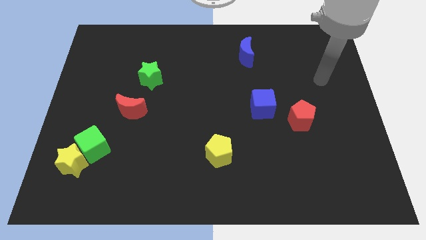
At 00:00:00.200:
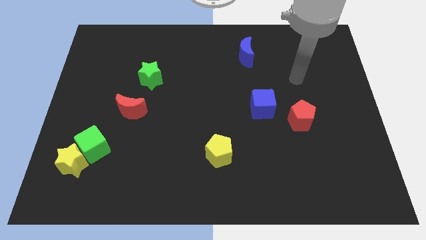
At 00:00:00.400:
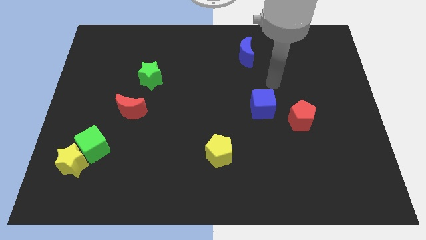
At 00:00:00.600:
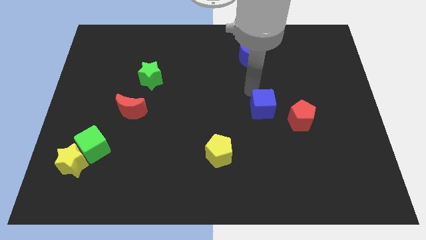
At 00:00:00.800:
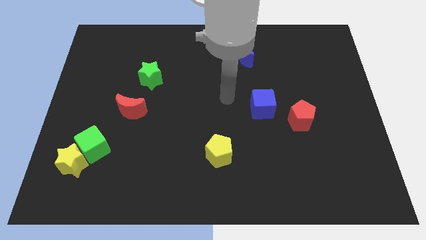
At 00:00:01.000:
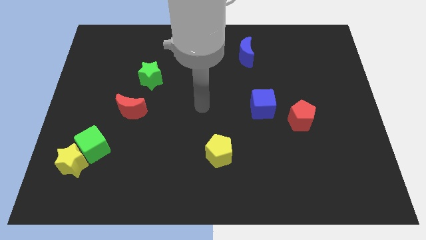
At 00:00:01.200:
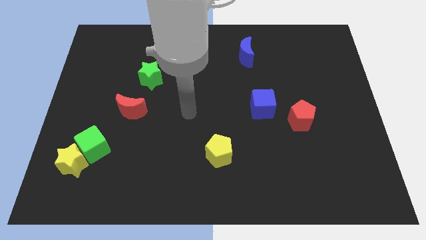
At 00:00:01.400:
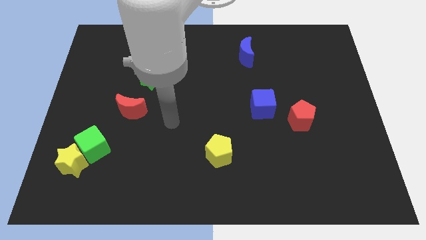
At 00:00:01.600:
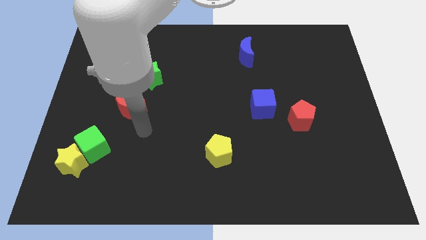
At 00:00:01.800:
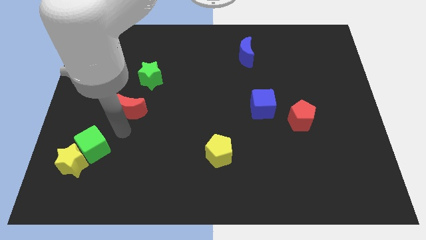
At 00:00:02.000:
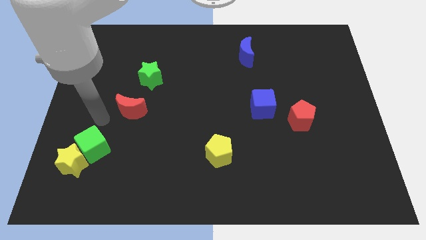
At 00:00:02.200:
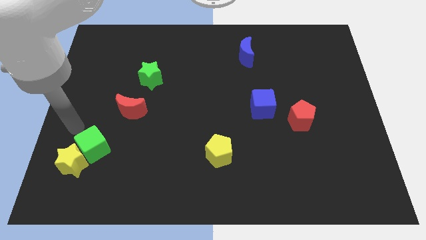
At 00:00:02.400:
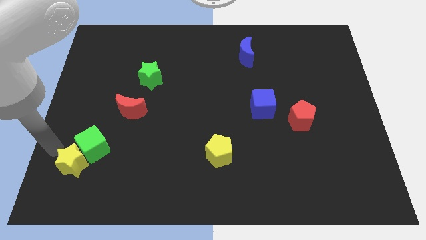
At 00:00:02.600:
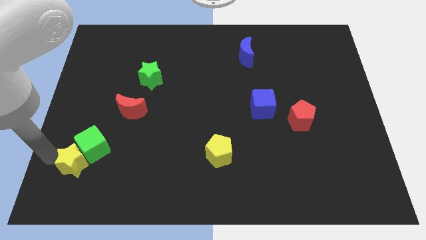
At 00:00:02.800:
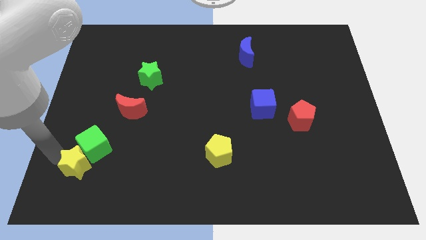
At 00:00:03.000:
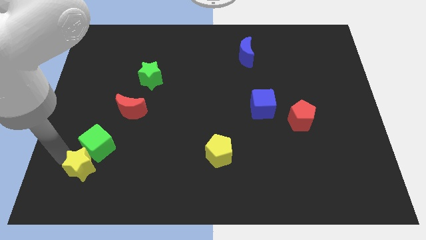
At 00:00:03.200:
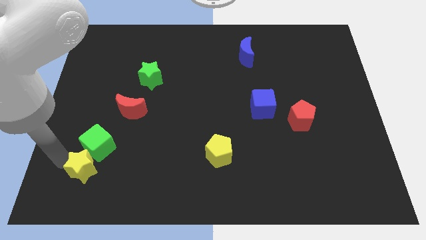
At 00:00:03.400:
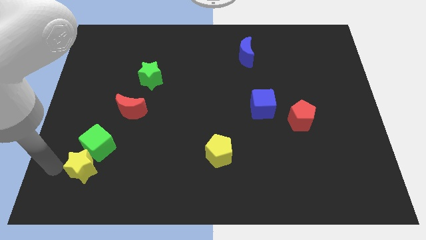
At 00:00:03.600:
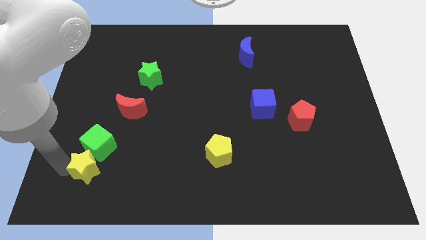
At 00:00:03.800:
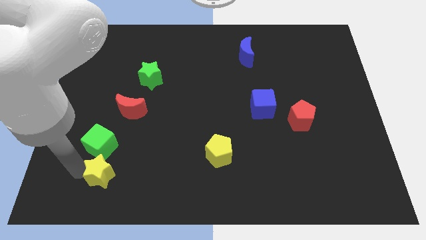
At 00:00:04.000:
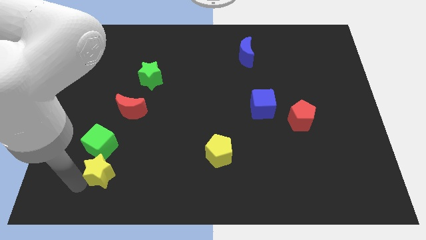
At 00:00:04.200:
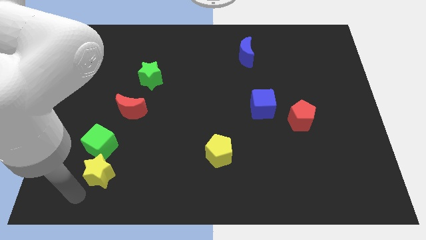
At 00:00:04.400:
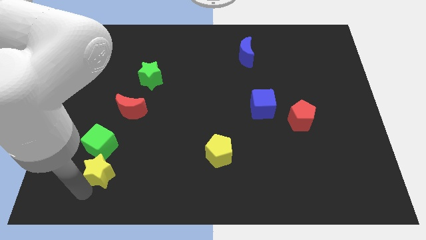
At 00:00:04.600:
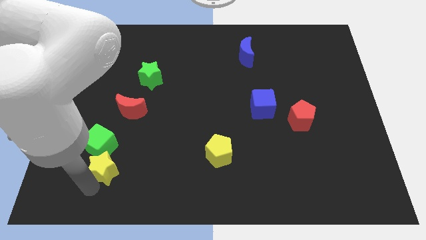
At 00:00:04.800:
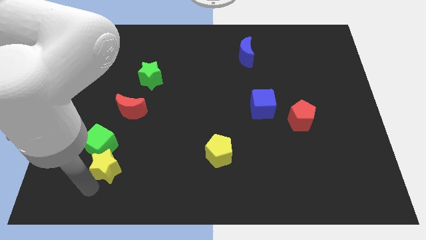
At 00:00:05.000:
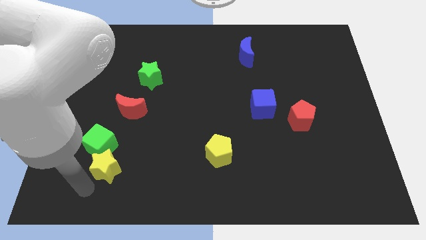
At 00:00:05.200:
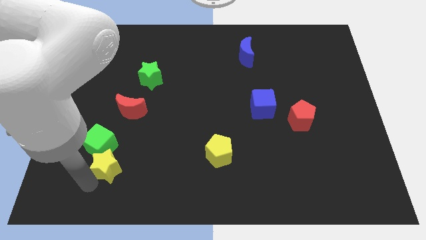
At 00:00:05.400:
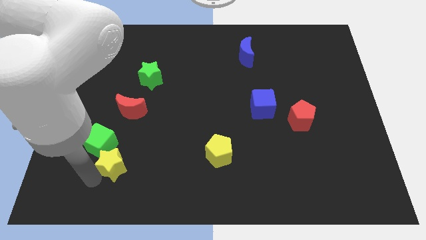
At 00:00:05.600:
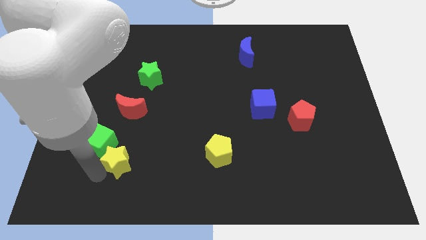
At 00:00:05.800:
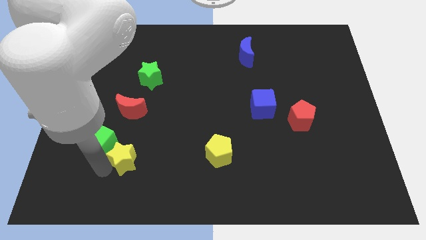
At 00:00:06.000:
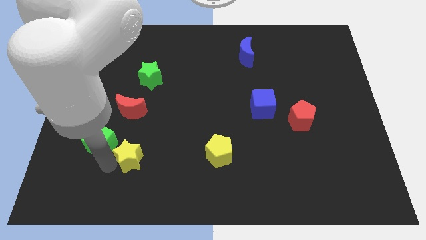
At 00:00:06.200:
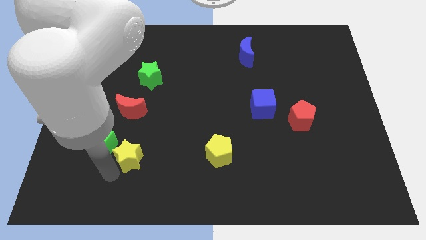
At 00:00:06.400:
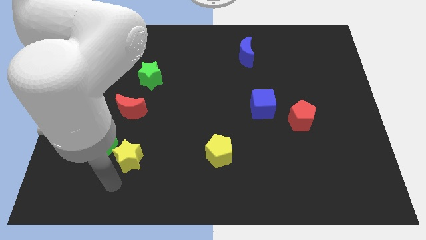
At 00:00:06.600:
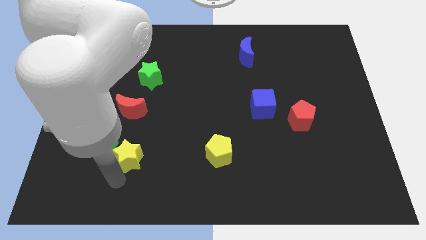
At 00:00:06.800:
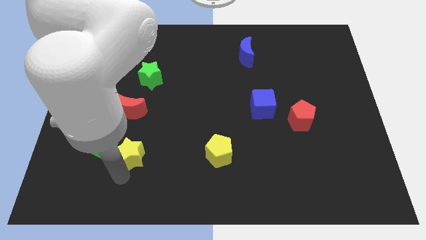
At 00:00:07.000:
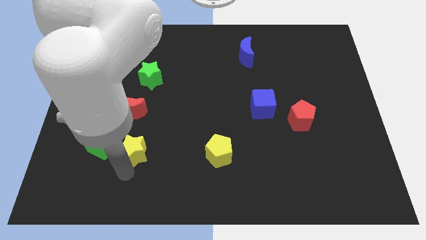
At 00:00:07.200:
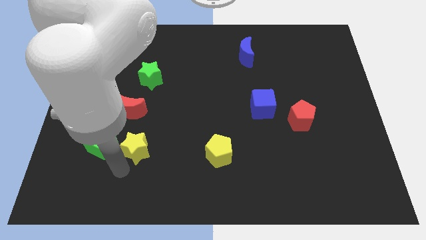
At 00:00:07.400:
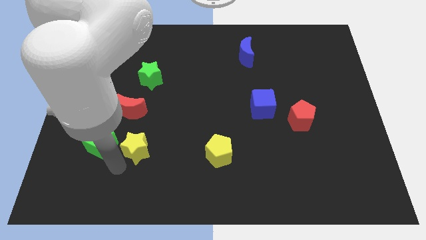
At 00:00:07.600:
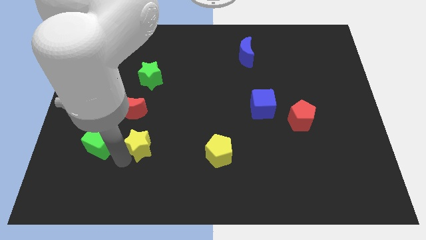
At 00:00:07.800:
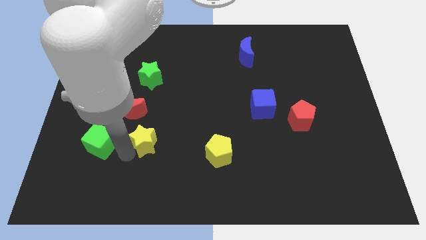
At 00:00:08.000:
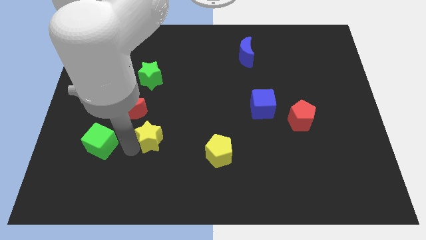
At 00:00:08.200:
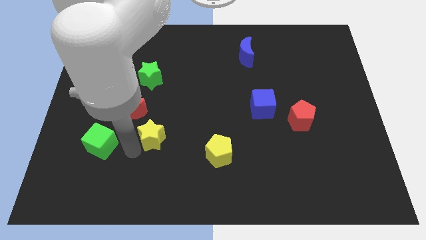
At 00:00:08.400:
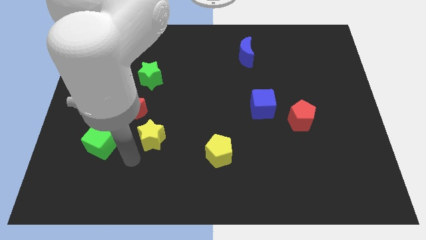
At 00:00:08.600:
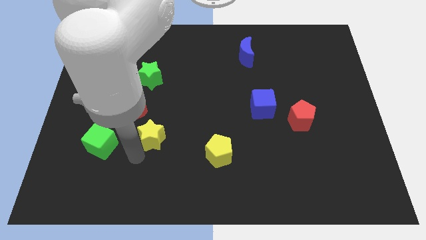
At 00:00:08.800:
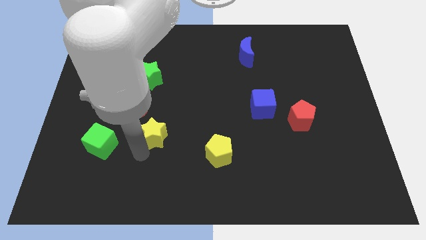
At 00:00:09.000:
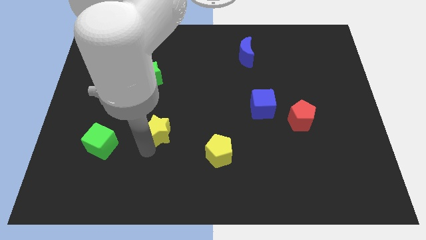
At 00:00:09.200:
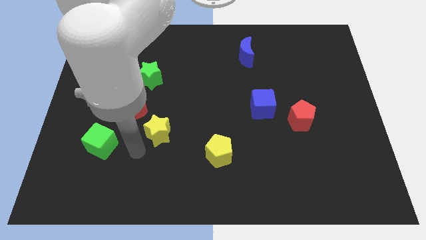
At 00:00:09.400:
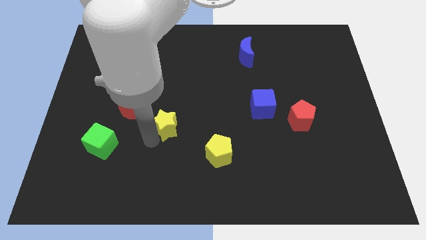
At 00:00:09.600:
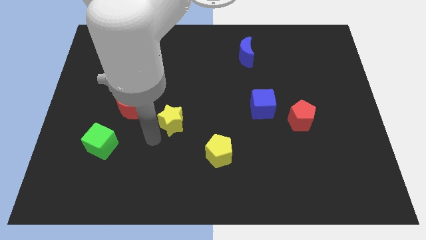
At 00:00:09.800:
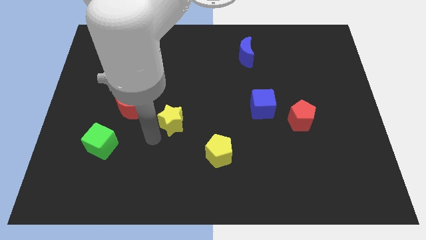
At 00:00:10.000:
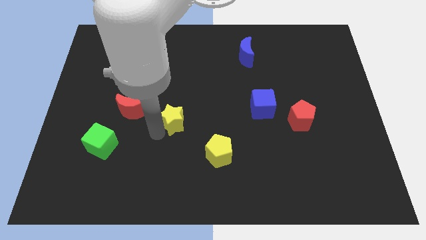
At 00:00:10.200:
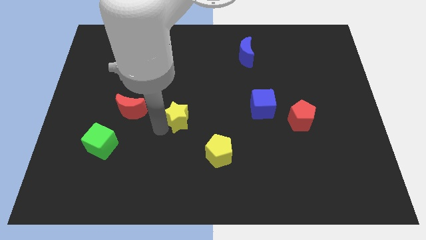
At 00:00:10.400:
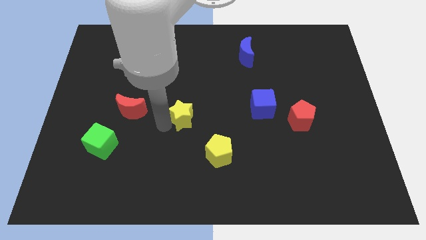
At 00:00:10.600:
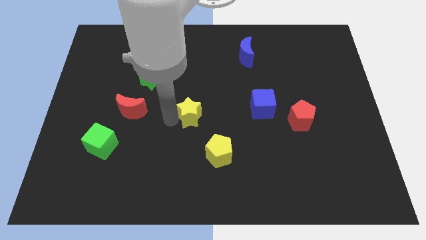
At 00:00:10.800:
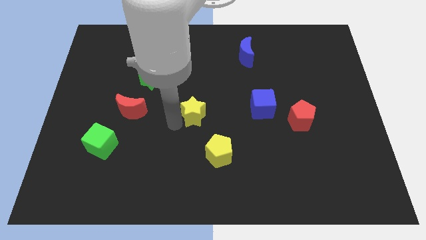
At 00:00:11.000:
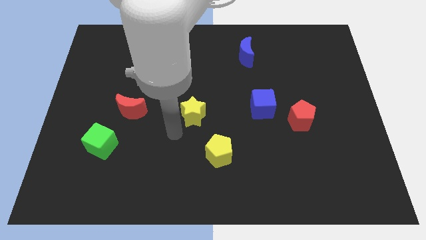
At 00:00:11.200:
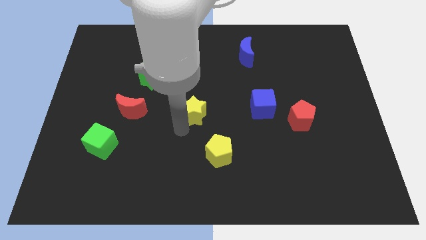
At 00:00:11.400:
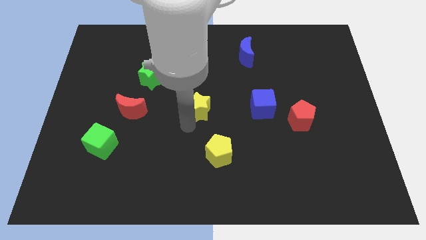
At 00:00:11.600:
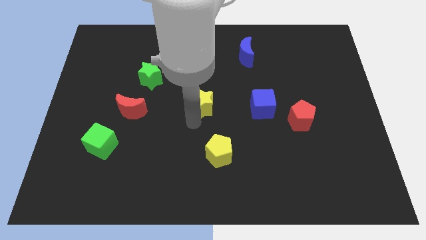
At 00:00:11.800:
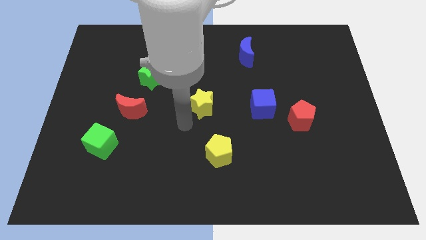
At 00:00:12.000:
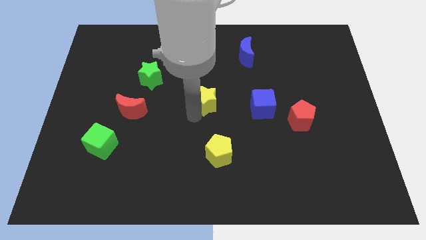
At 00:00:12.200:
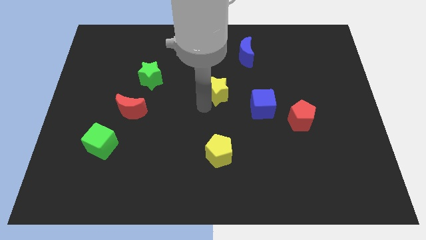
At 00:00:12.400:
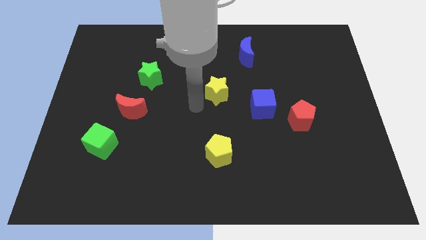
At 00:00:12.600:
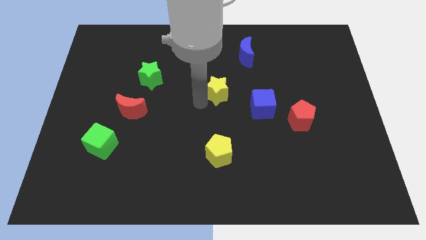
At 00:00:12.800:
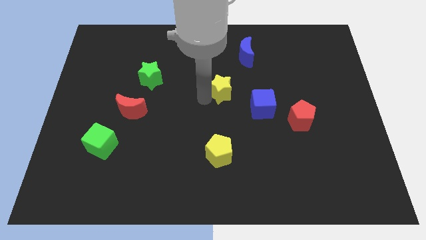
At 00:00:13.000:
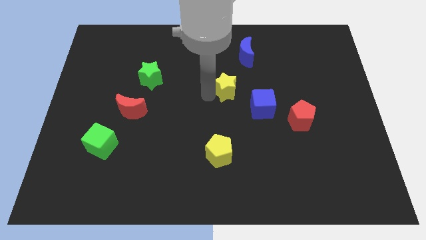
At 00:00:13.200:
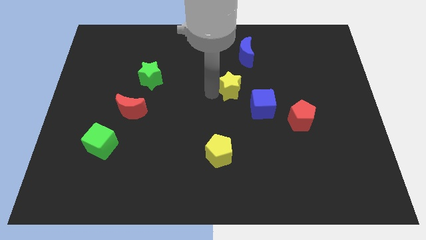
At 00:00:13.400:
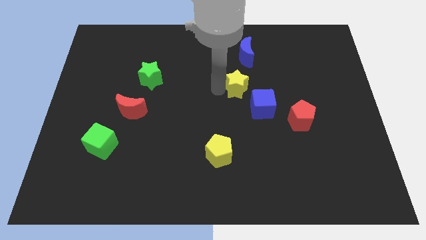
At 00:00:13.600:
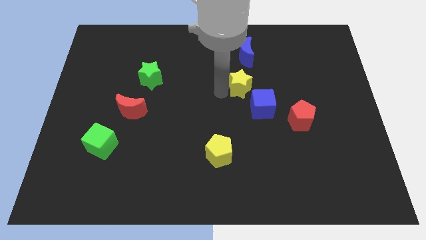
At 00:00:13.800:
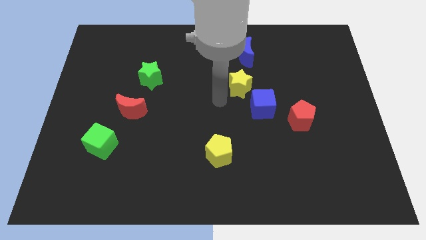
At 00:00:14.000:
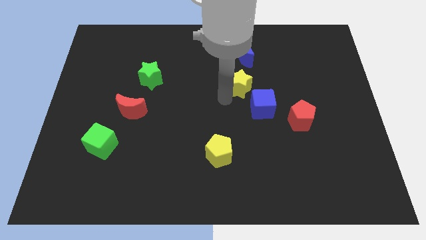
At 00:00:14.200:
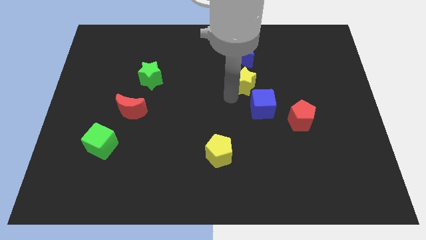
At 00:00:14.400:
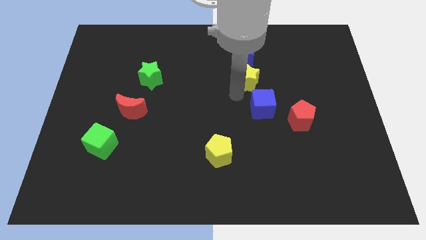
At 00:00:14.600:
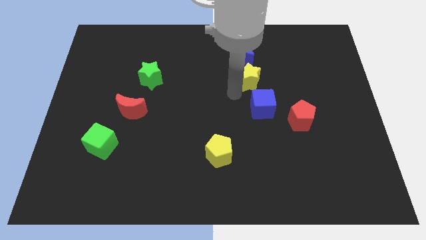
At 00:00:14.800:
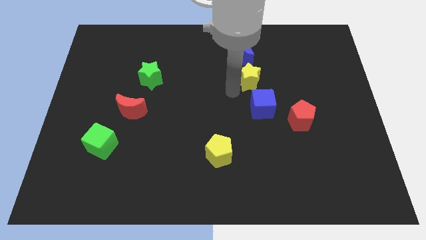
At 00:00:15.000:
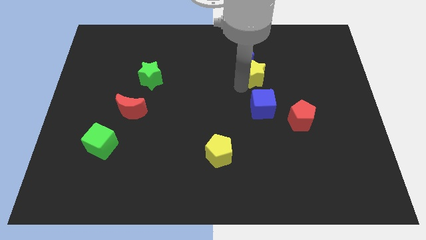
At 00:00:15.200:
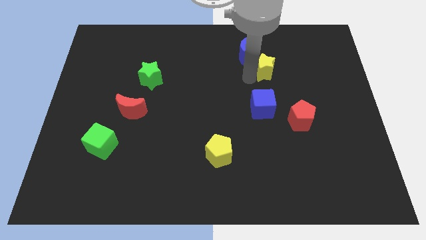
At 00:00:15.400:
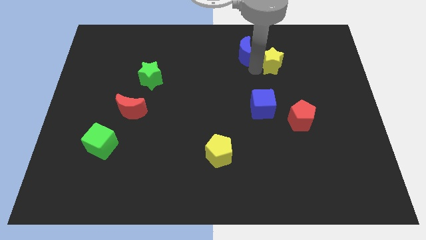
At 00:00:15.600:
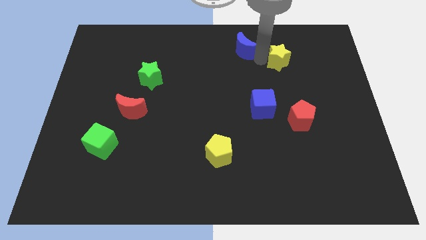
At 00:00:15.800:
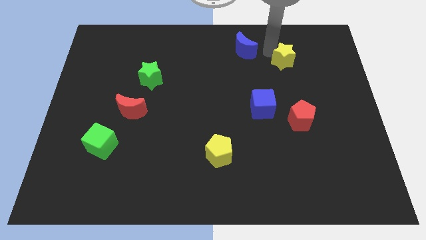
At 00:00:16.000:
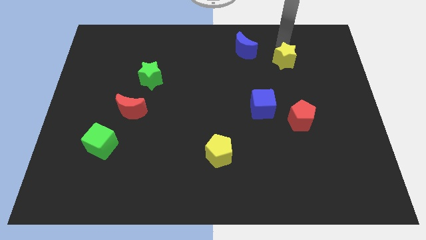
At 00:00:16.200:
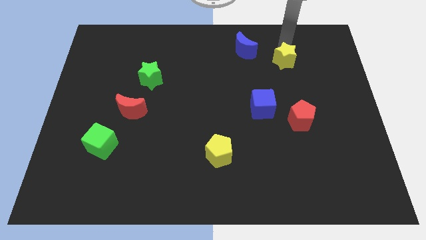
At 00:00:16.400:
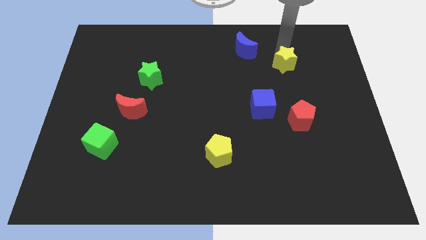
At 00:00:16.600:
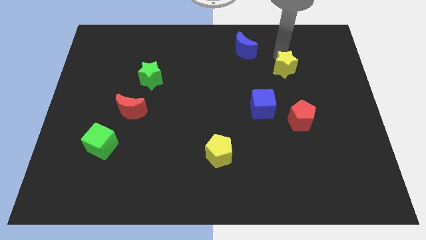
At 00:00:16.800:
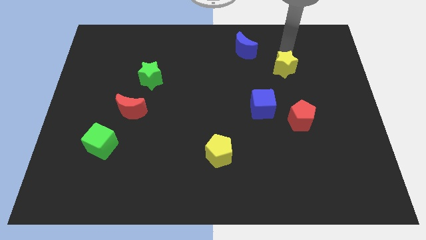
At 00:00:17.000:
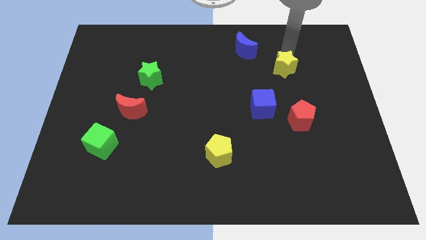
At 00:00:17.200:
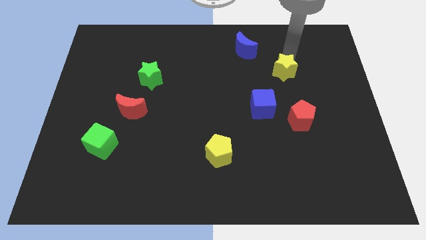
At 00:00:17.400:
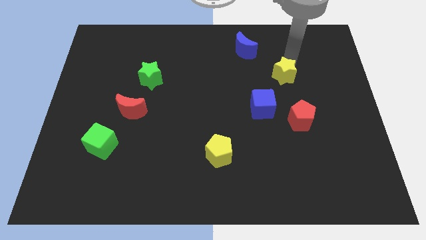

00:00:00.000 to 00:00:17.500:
put the yellow star to the top right side of the blue cube
